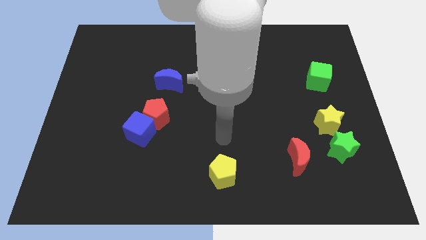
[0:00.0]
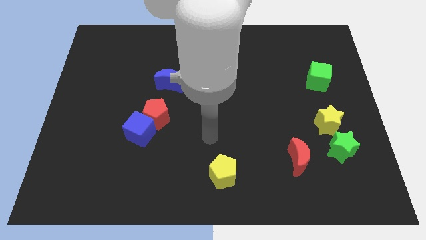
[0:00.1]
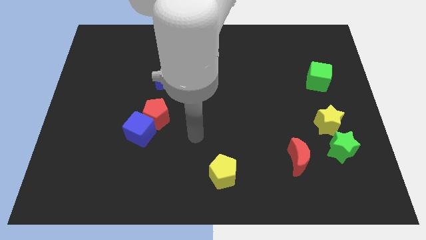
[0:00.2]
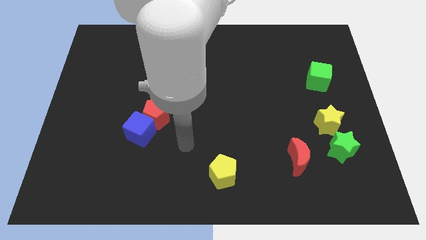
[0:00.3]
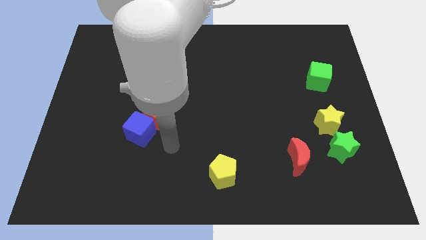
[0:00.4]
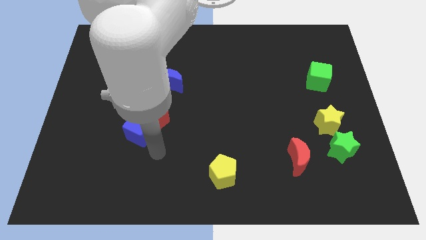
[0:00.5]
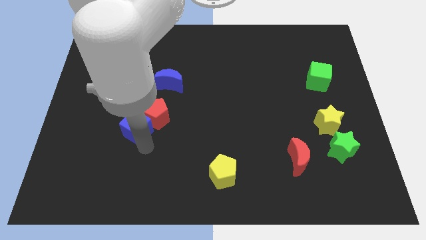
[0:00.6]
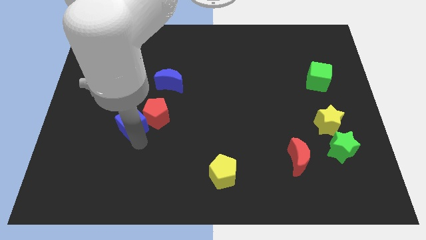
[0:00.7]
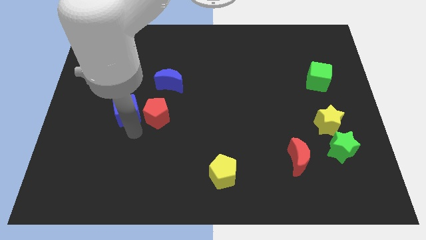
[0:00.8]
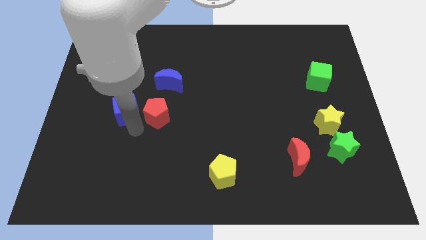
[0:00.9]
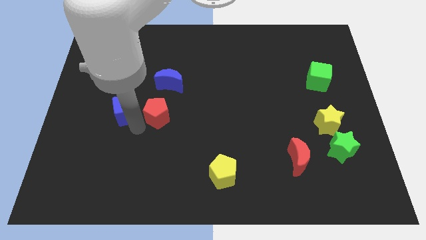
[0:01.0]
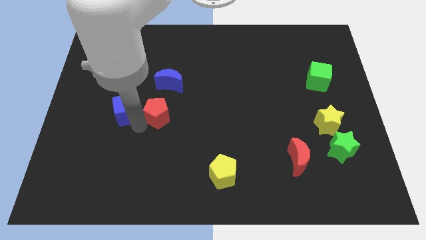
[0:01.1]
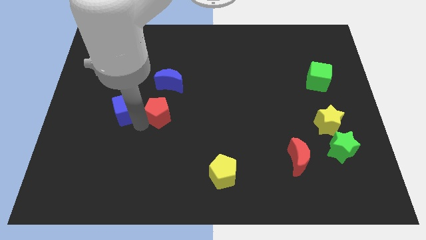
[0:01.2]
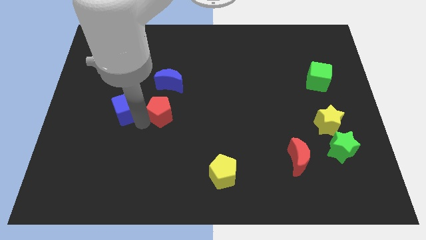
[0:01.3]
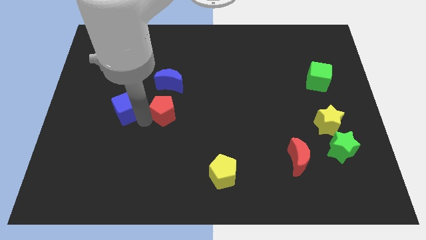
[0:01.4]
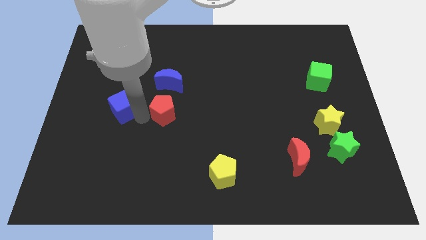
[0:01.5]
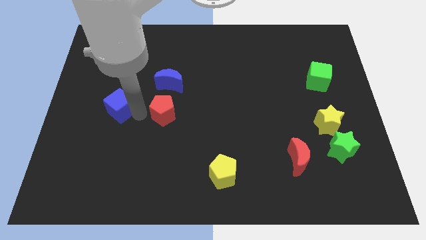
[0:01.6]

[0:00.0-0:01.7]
separate the red pentagon from the blue cube

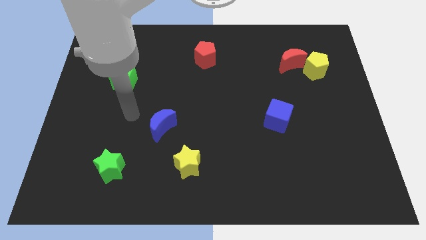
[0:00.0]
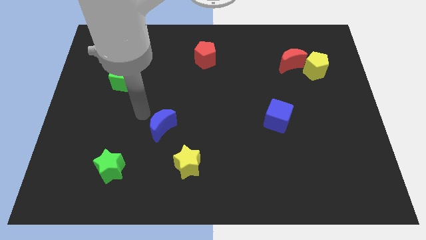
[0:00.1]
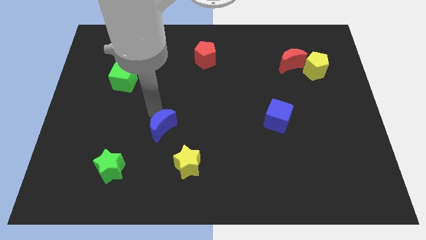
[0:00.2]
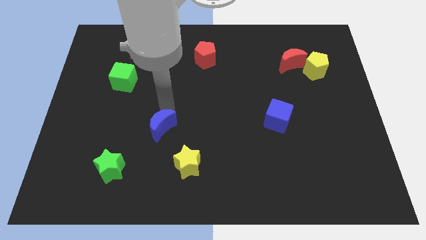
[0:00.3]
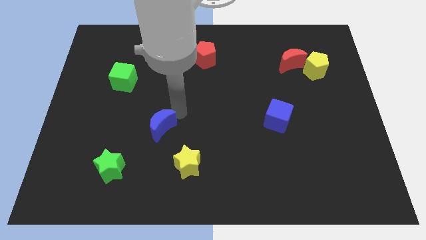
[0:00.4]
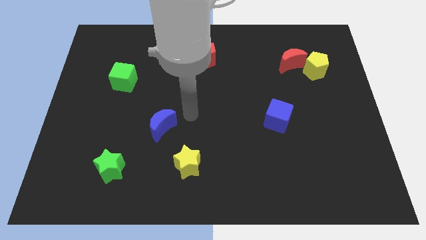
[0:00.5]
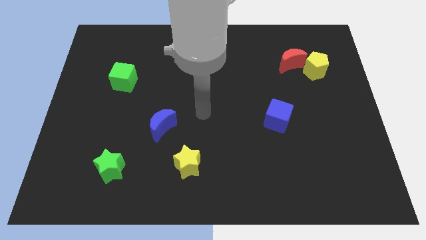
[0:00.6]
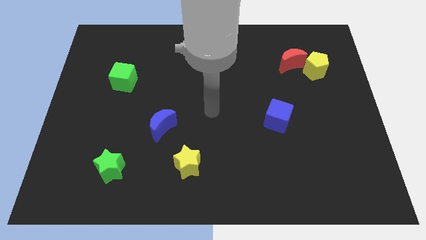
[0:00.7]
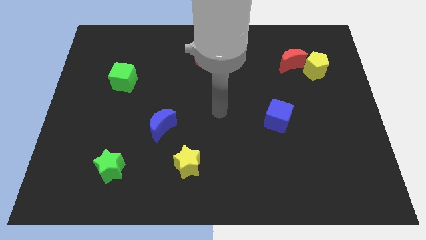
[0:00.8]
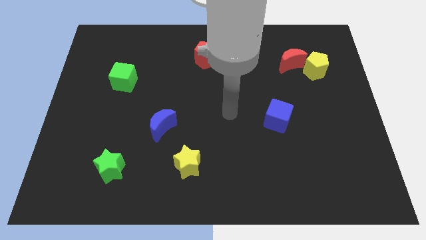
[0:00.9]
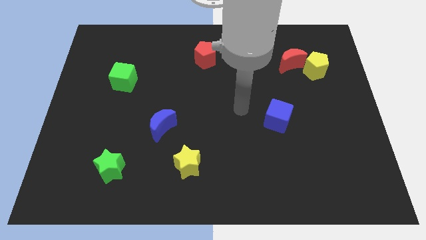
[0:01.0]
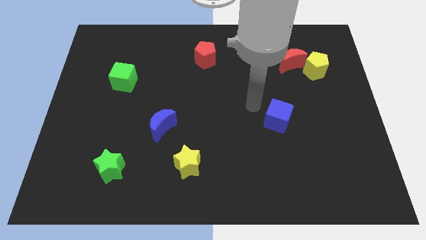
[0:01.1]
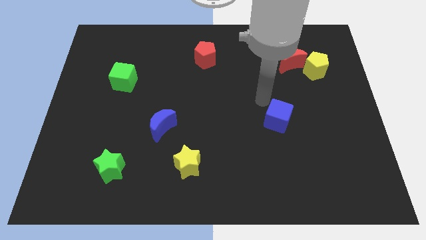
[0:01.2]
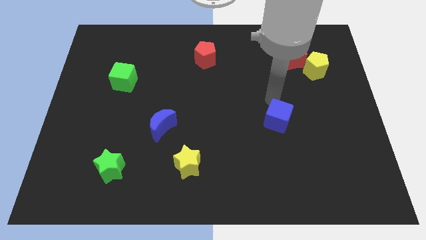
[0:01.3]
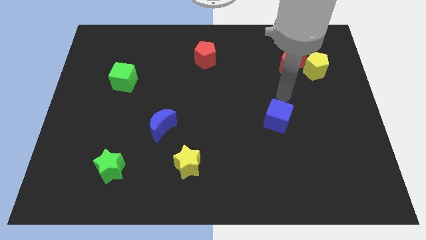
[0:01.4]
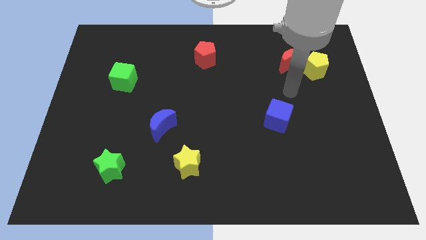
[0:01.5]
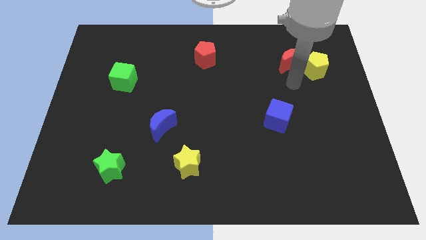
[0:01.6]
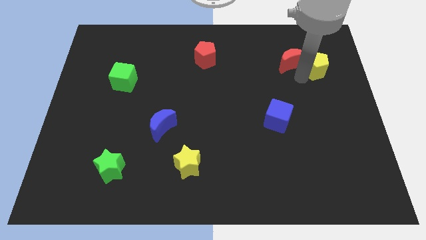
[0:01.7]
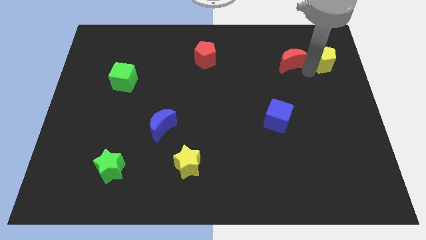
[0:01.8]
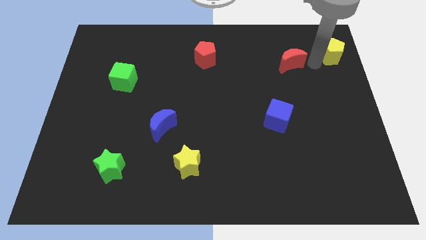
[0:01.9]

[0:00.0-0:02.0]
move the red moon away from the yellow pentagon

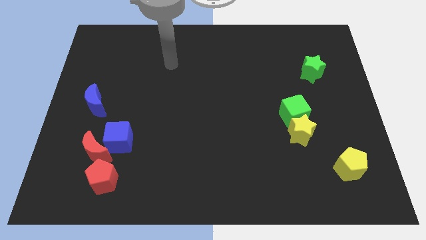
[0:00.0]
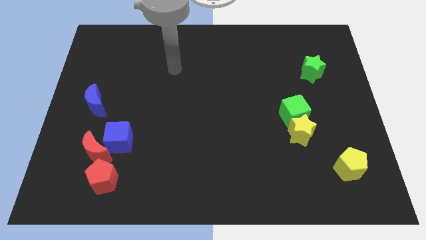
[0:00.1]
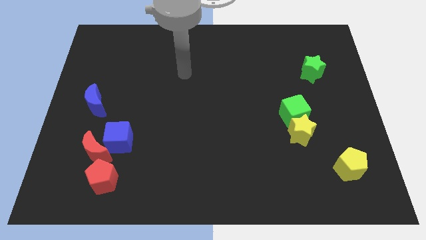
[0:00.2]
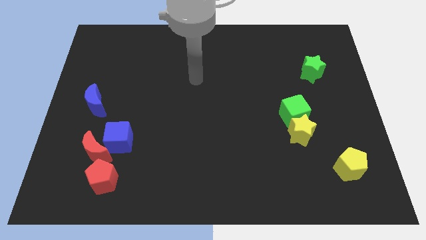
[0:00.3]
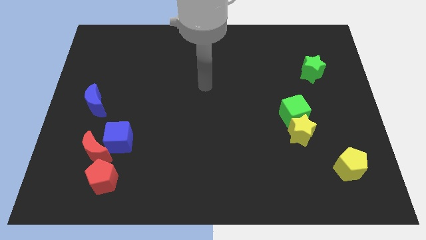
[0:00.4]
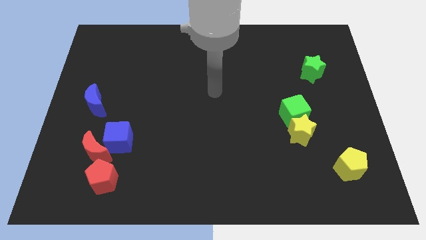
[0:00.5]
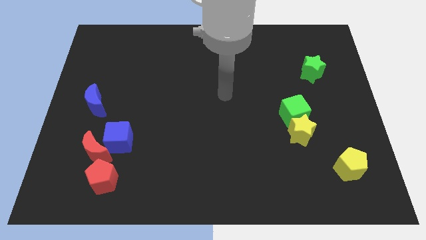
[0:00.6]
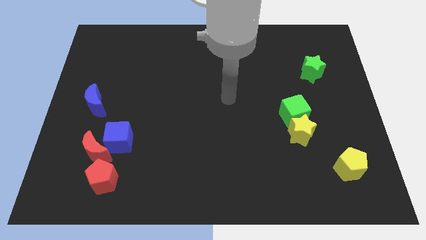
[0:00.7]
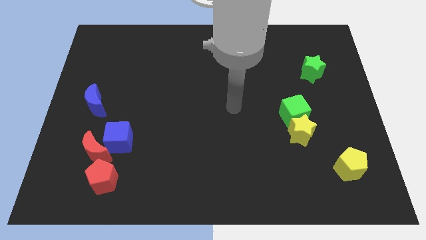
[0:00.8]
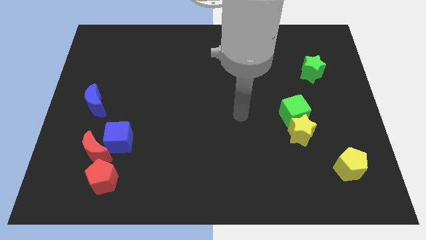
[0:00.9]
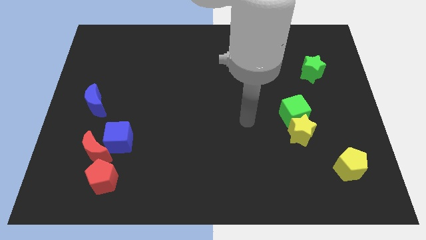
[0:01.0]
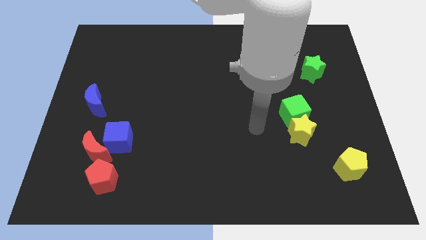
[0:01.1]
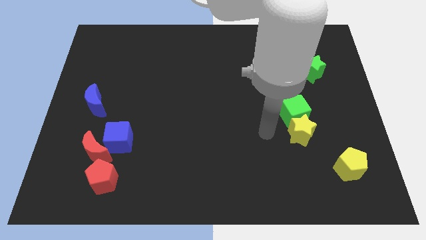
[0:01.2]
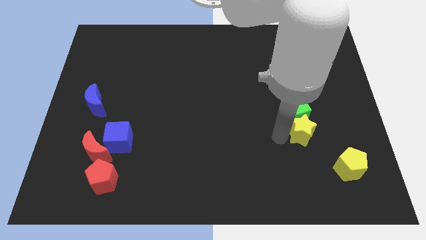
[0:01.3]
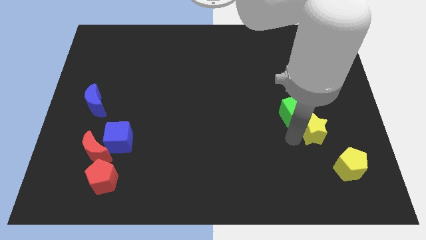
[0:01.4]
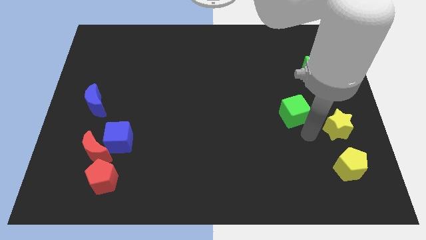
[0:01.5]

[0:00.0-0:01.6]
separate the green cube from the yellow star

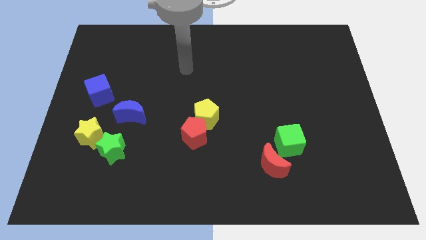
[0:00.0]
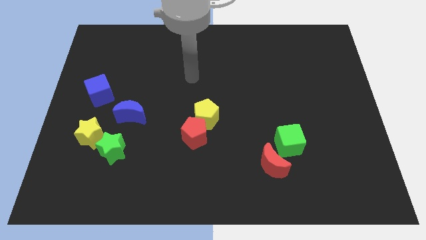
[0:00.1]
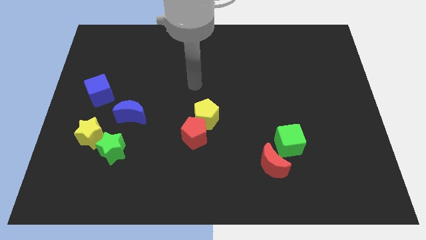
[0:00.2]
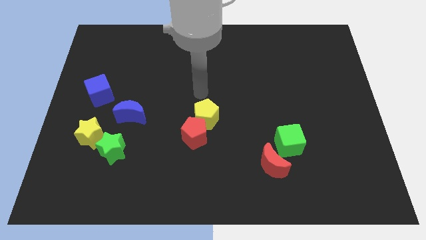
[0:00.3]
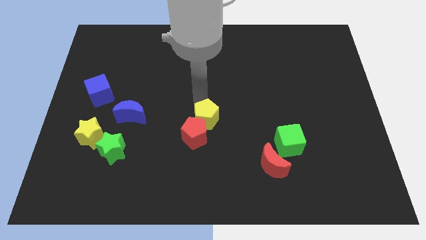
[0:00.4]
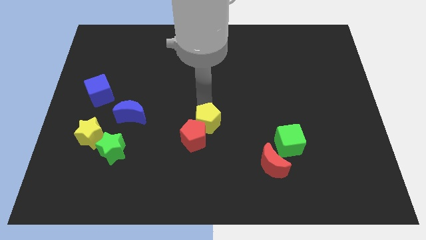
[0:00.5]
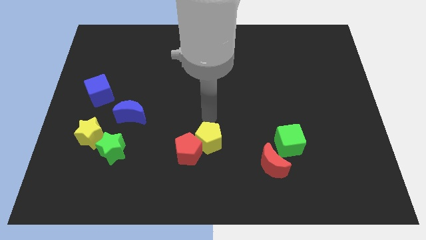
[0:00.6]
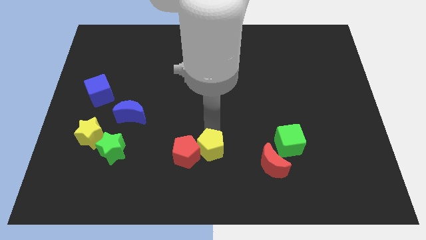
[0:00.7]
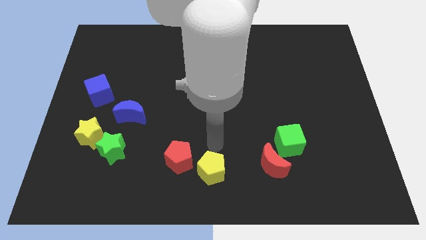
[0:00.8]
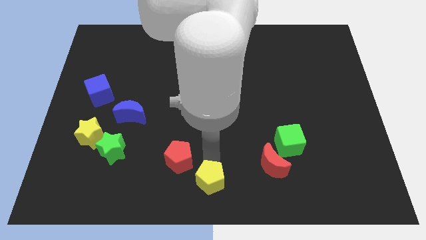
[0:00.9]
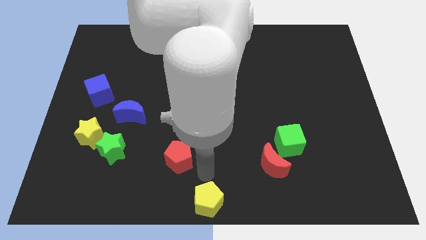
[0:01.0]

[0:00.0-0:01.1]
pull the red pentagon apart from the yellow pentagon

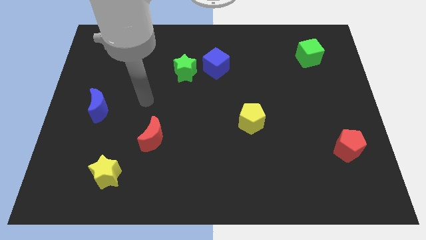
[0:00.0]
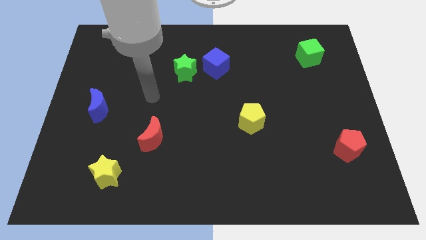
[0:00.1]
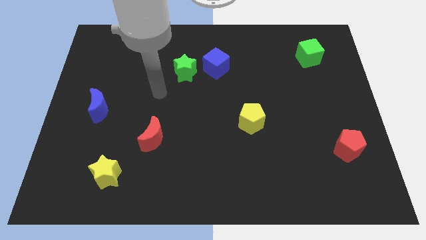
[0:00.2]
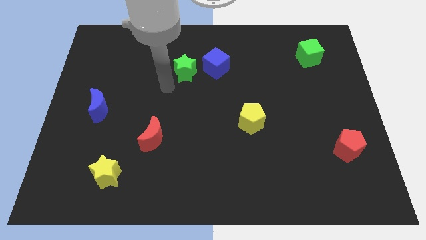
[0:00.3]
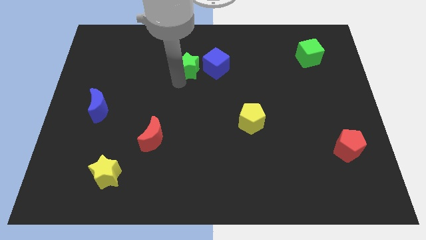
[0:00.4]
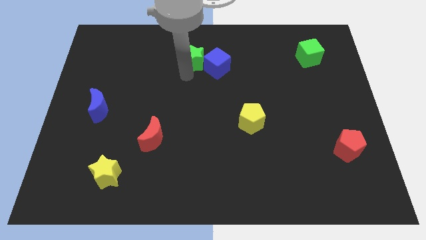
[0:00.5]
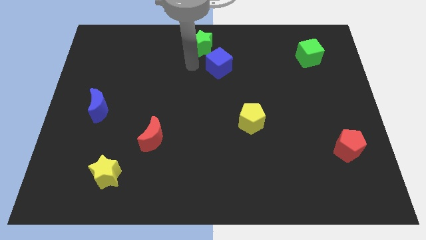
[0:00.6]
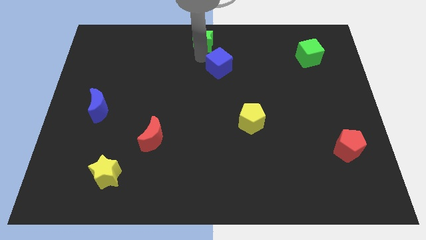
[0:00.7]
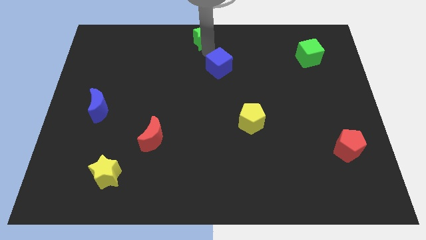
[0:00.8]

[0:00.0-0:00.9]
separate the blue cube from the green star

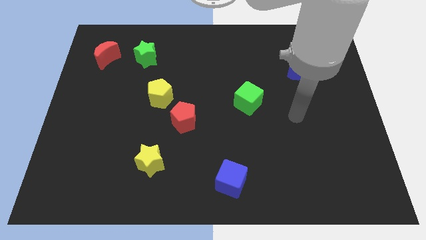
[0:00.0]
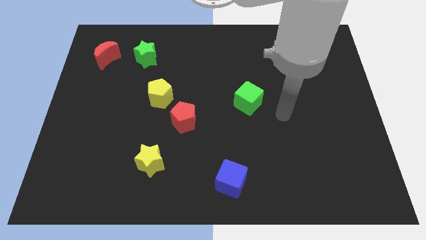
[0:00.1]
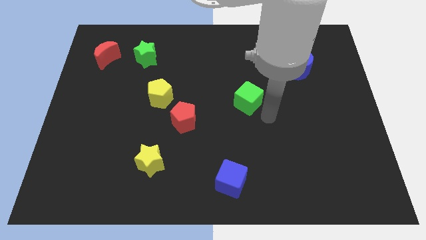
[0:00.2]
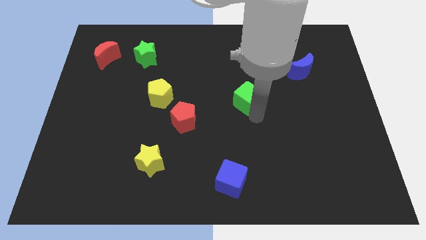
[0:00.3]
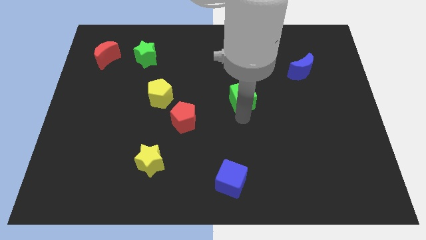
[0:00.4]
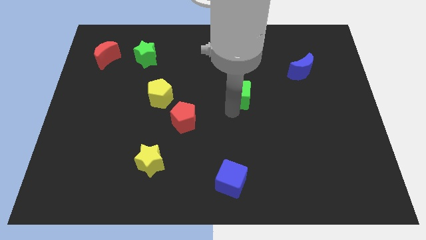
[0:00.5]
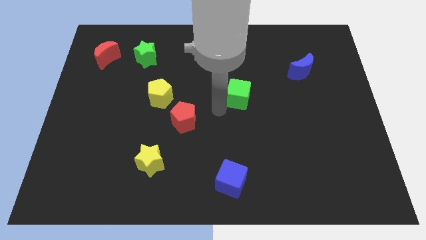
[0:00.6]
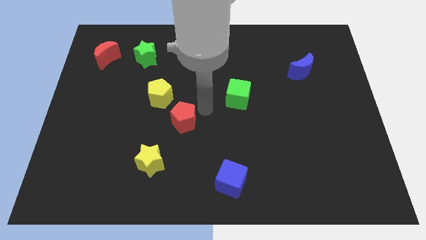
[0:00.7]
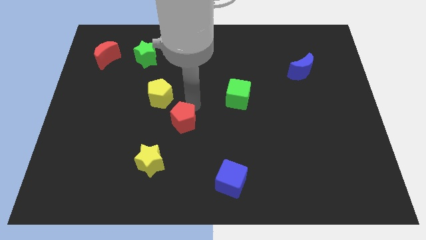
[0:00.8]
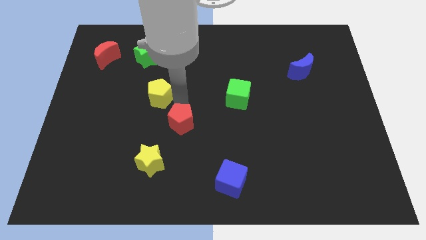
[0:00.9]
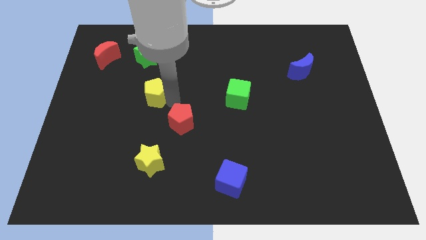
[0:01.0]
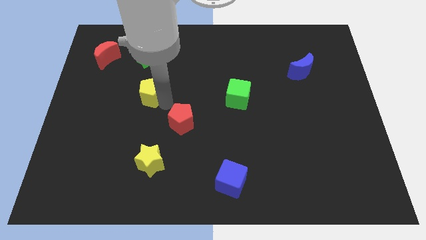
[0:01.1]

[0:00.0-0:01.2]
separate the red pentagon from the yellow pentagon

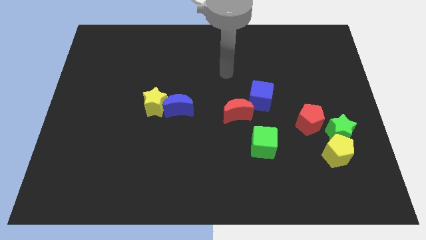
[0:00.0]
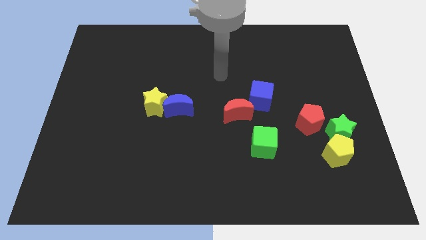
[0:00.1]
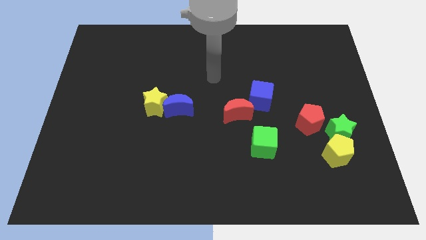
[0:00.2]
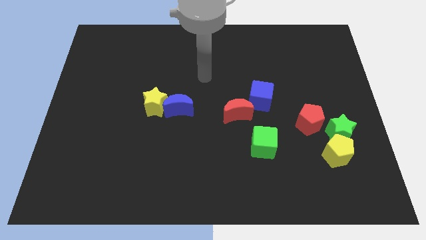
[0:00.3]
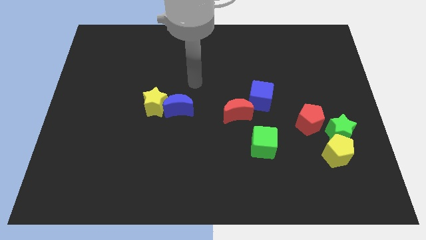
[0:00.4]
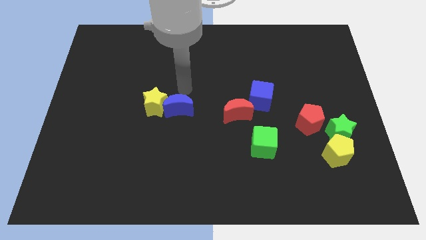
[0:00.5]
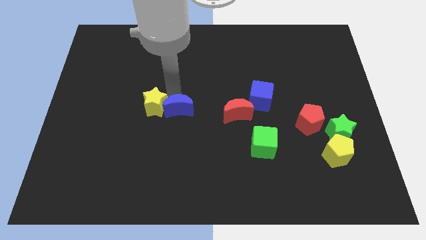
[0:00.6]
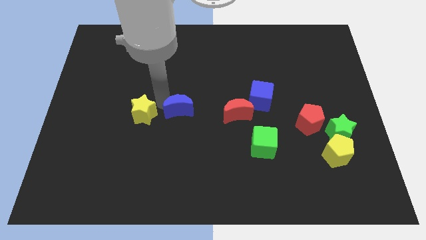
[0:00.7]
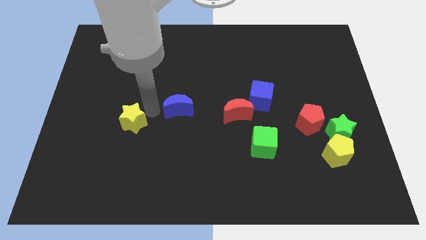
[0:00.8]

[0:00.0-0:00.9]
move the blue moon away from the yellow star
